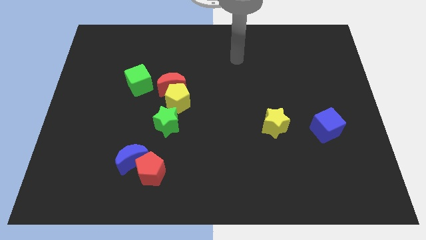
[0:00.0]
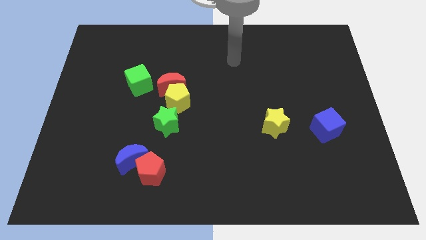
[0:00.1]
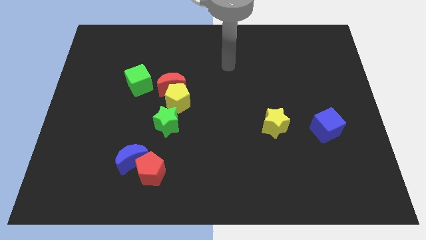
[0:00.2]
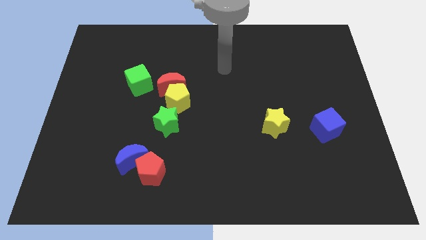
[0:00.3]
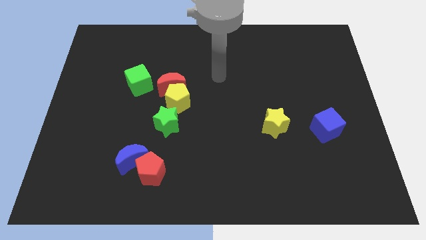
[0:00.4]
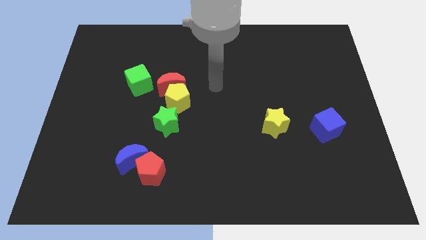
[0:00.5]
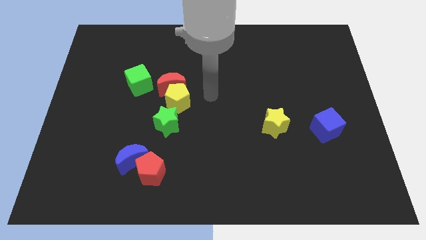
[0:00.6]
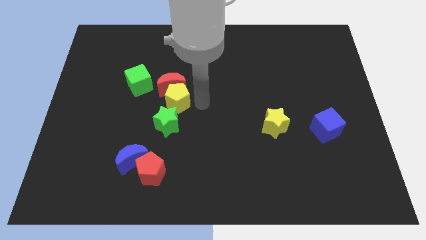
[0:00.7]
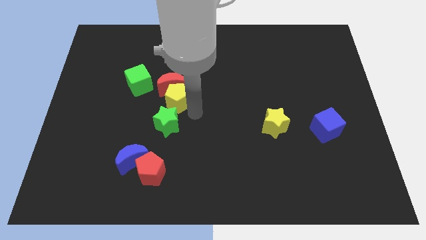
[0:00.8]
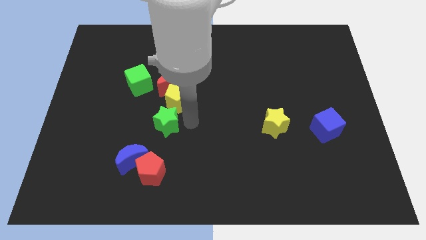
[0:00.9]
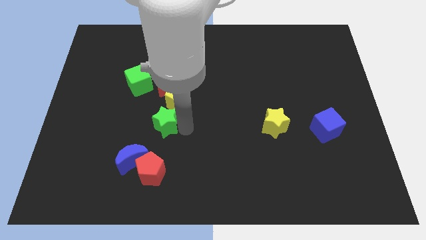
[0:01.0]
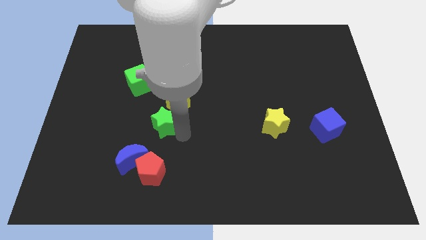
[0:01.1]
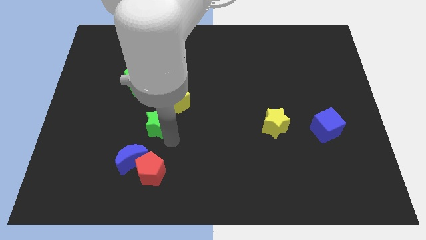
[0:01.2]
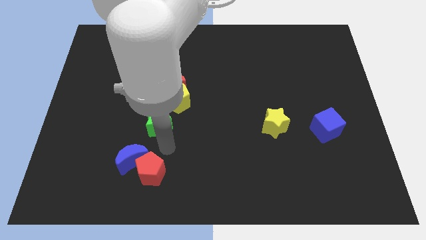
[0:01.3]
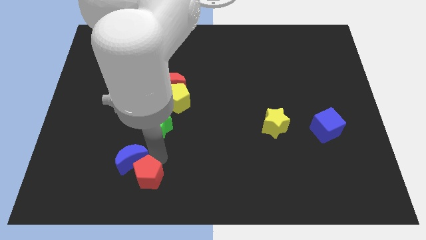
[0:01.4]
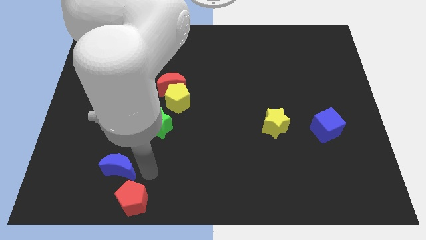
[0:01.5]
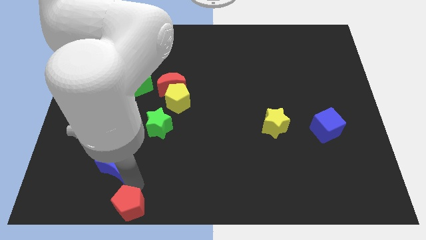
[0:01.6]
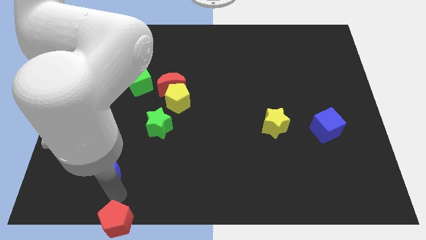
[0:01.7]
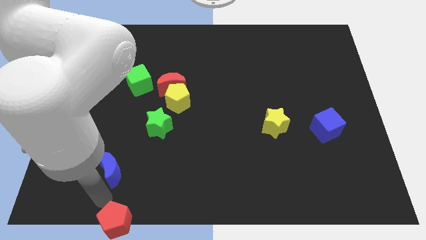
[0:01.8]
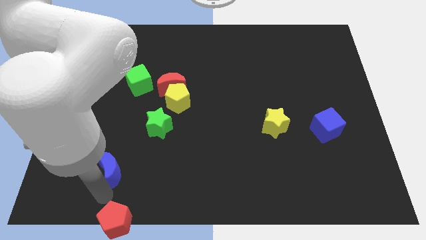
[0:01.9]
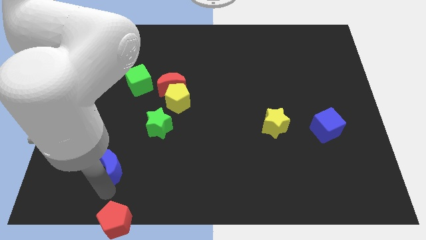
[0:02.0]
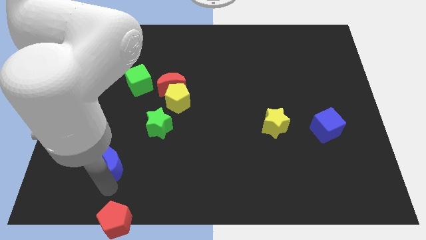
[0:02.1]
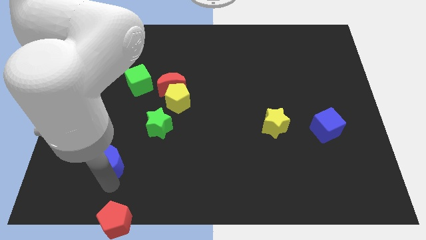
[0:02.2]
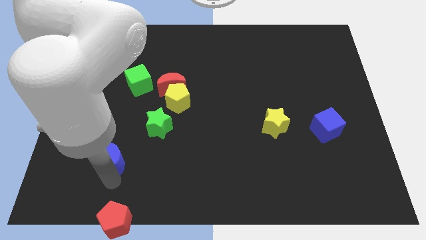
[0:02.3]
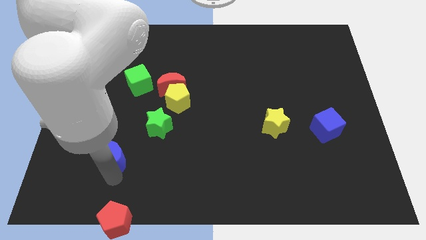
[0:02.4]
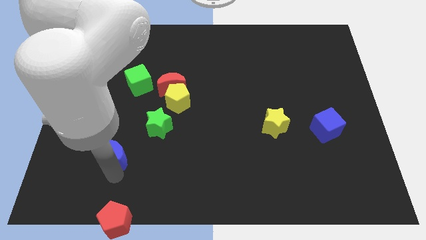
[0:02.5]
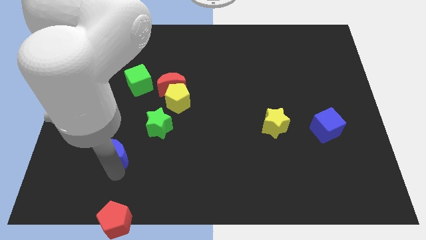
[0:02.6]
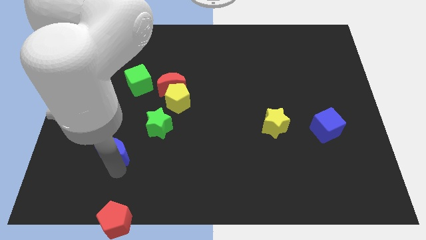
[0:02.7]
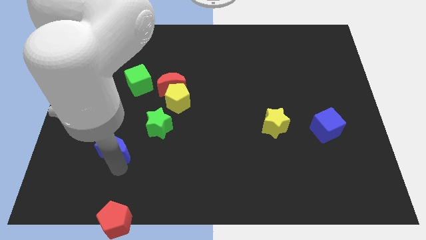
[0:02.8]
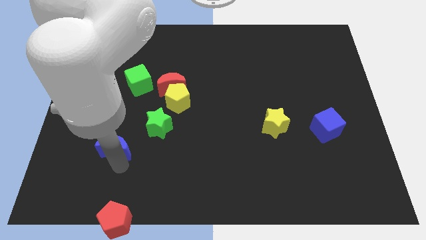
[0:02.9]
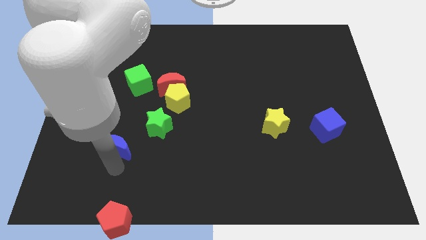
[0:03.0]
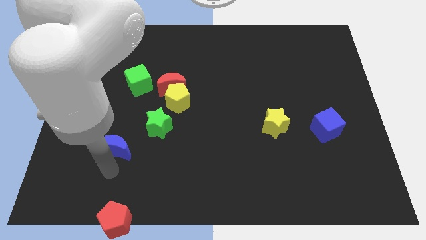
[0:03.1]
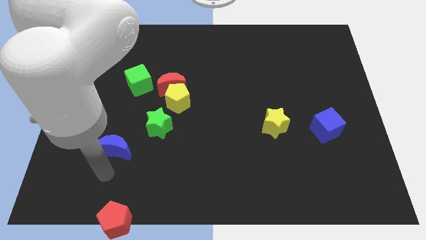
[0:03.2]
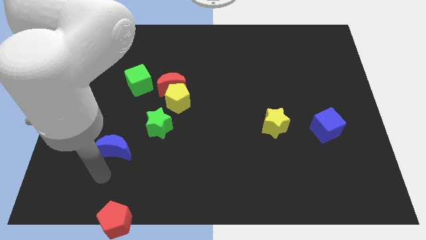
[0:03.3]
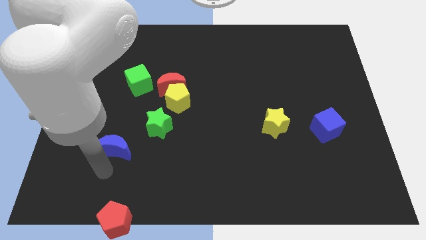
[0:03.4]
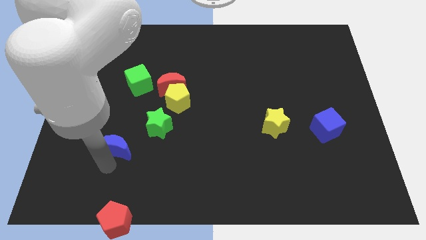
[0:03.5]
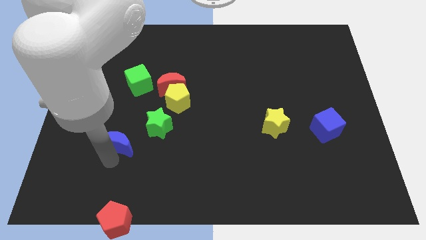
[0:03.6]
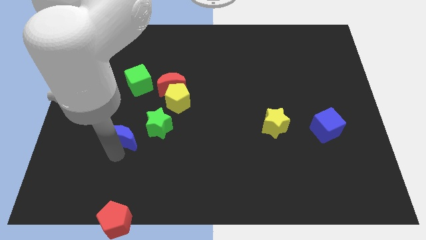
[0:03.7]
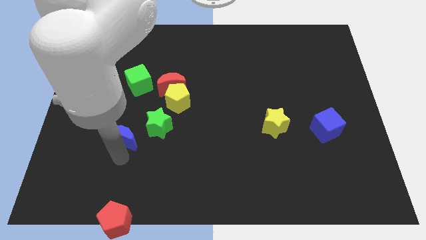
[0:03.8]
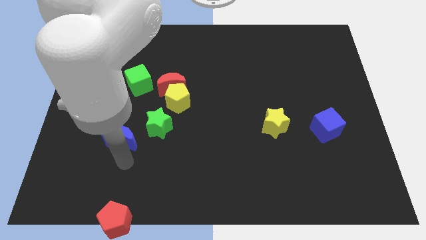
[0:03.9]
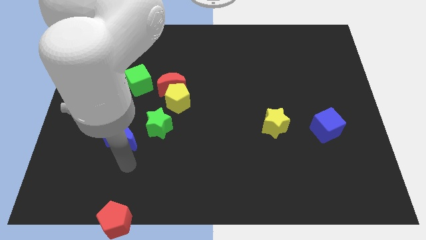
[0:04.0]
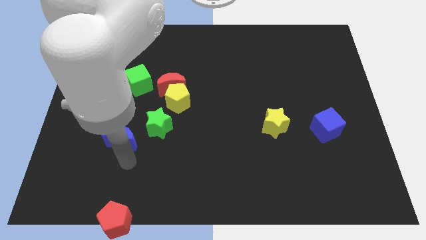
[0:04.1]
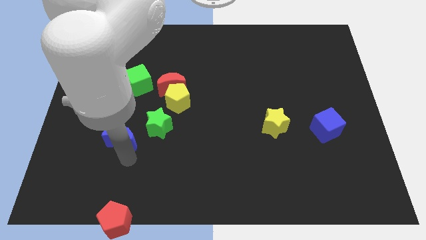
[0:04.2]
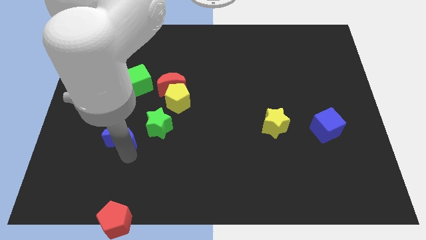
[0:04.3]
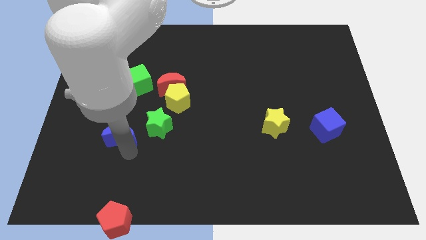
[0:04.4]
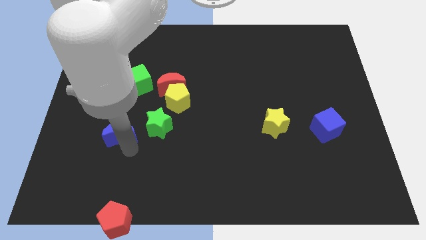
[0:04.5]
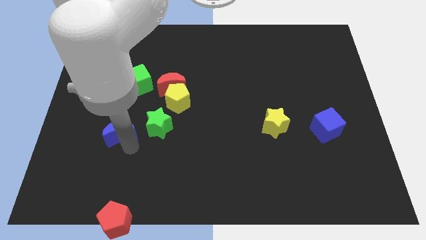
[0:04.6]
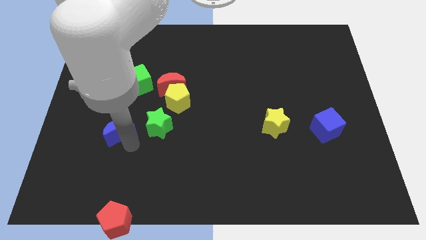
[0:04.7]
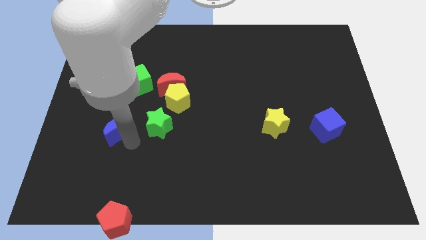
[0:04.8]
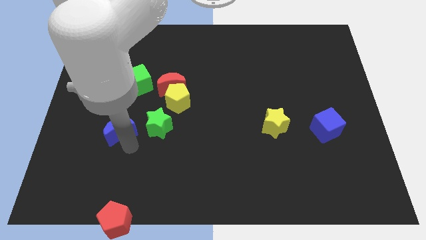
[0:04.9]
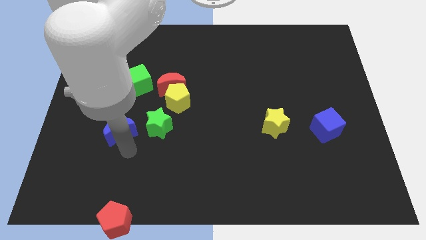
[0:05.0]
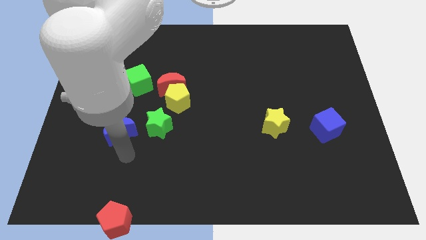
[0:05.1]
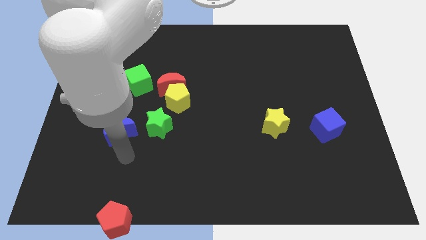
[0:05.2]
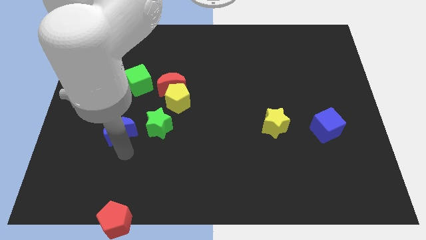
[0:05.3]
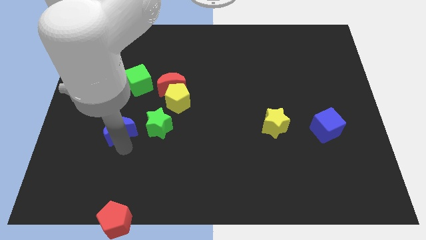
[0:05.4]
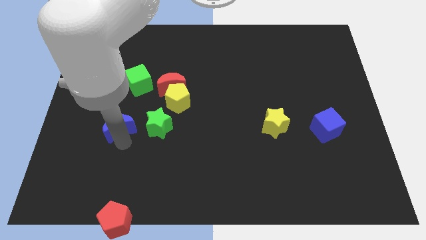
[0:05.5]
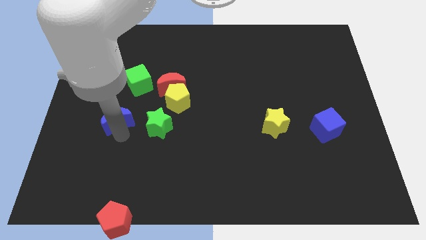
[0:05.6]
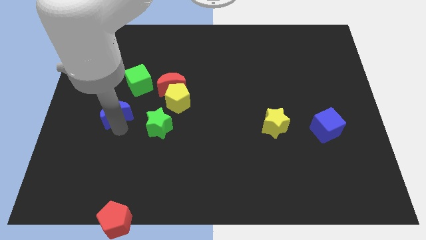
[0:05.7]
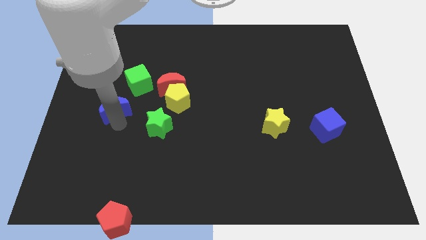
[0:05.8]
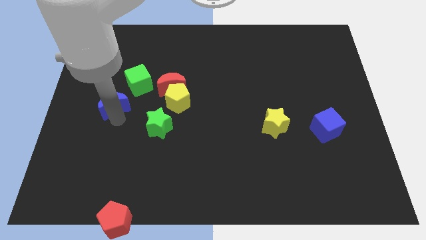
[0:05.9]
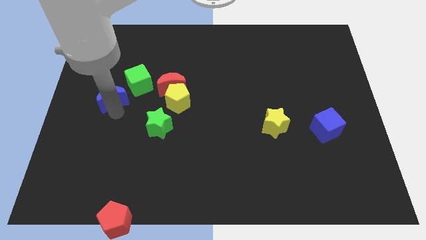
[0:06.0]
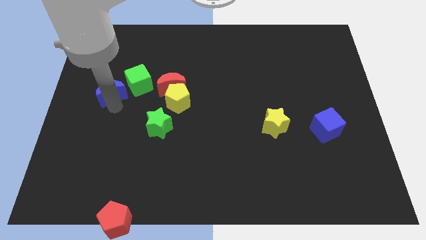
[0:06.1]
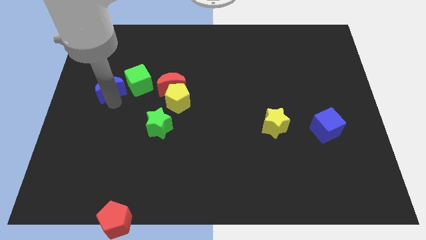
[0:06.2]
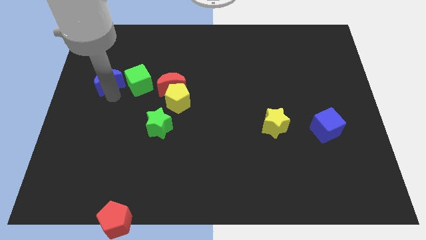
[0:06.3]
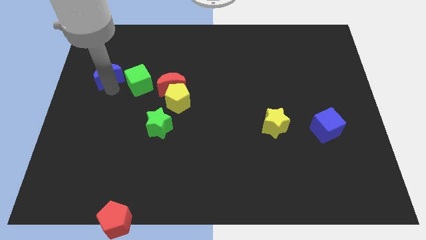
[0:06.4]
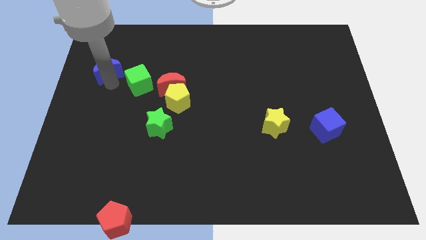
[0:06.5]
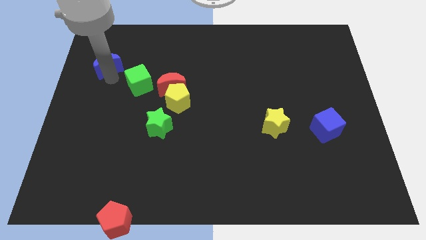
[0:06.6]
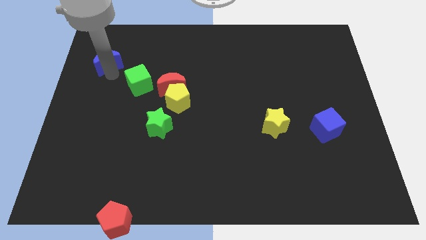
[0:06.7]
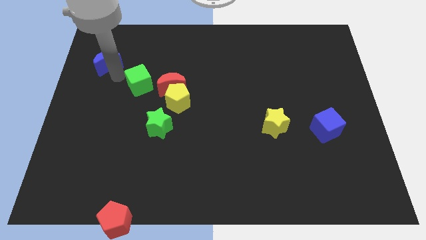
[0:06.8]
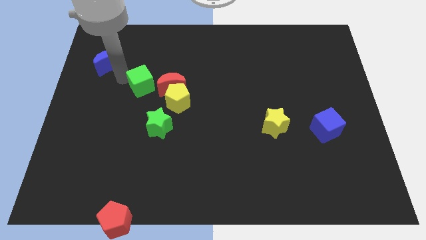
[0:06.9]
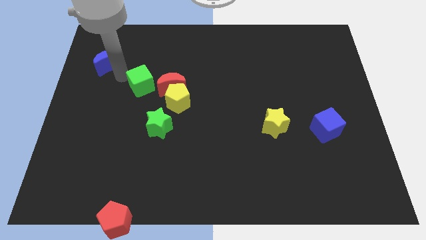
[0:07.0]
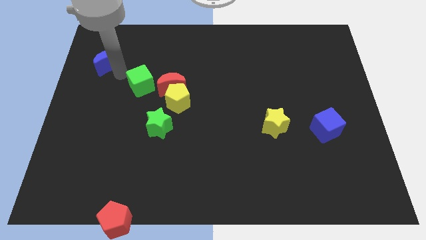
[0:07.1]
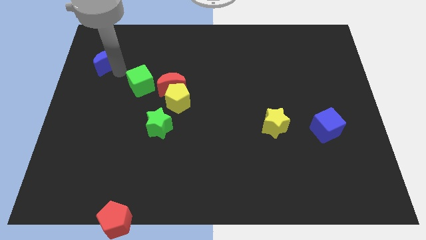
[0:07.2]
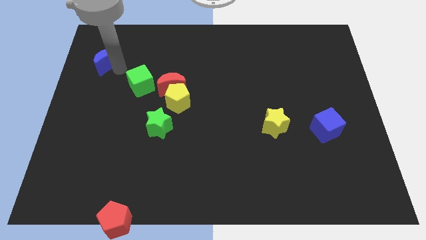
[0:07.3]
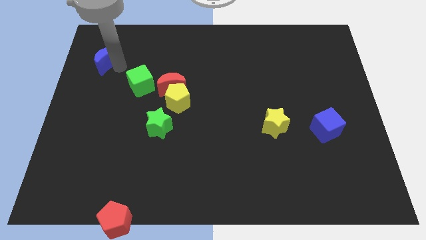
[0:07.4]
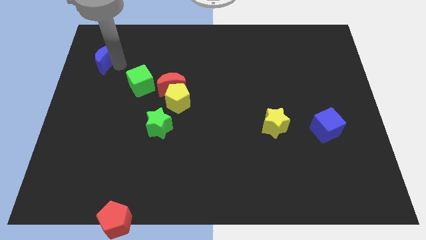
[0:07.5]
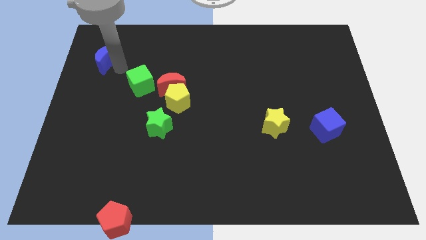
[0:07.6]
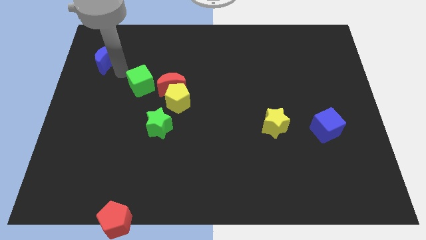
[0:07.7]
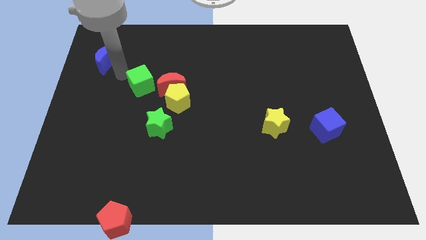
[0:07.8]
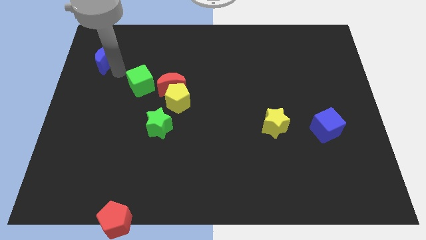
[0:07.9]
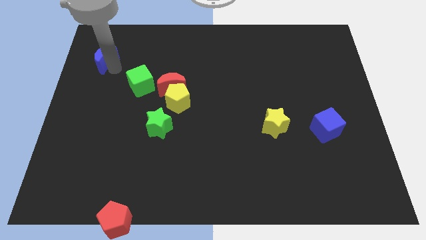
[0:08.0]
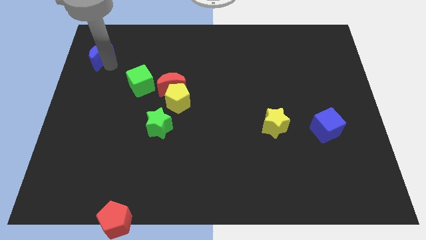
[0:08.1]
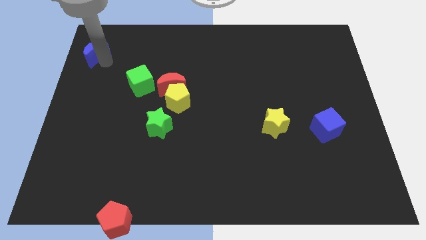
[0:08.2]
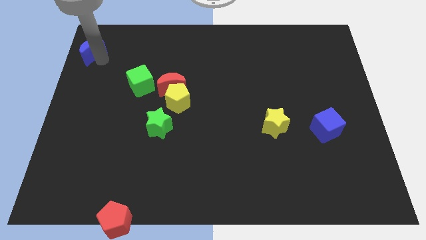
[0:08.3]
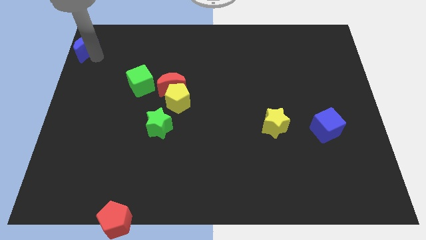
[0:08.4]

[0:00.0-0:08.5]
push the blue moon to the upper left corner
